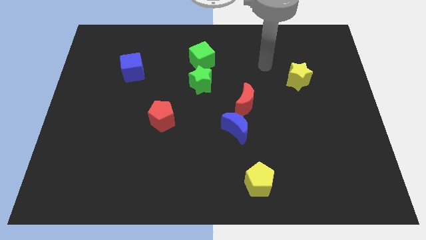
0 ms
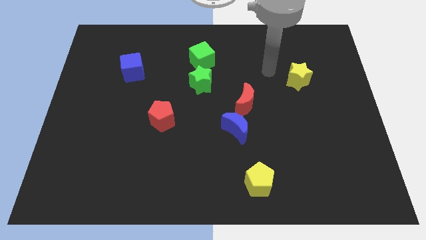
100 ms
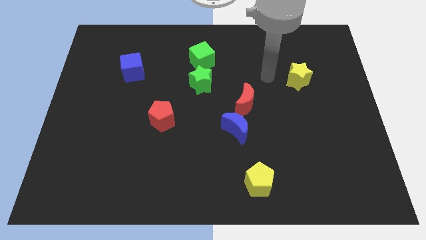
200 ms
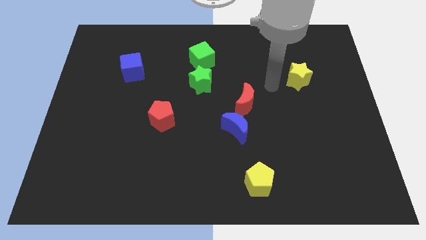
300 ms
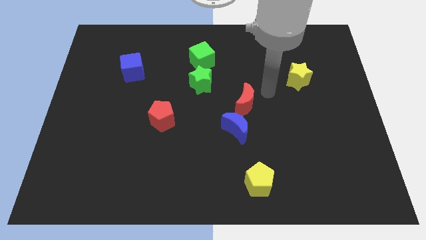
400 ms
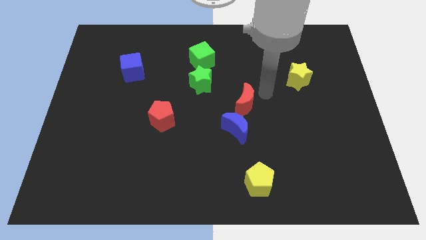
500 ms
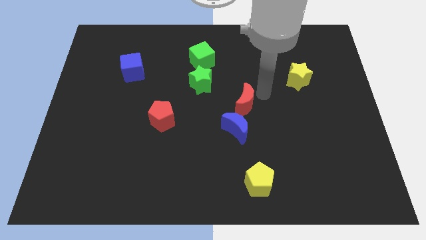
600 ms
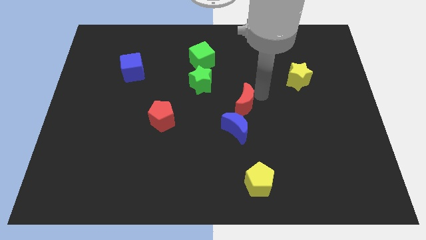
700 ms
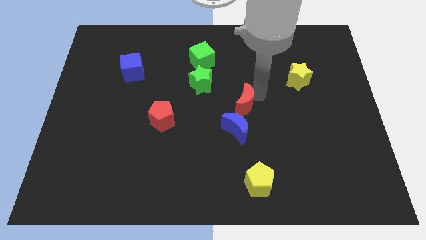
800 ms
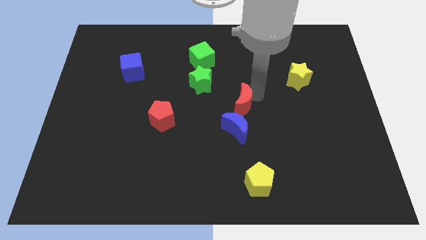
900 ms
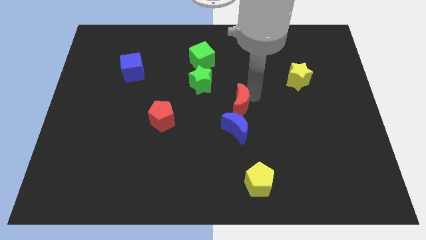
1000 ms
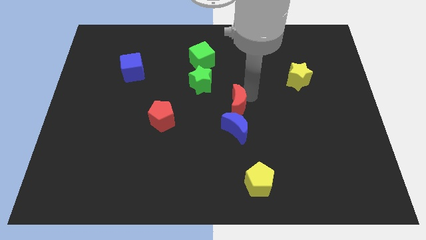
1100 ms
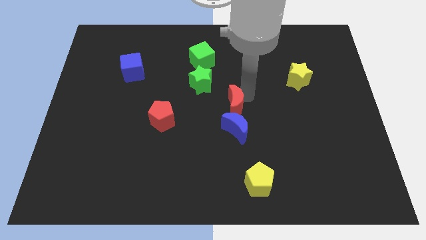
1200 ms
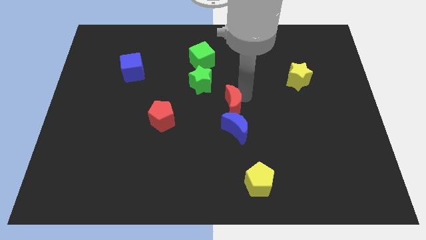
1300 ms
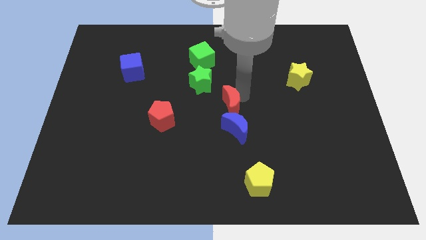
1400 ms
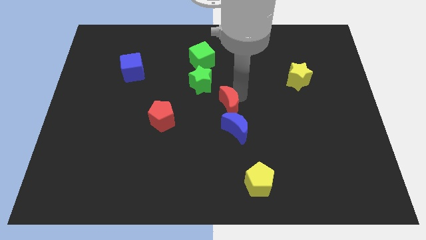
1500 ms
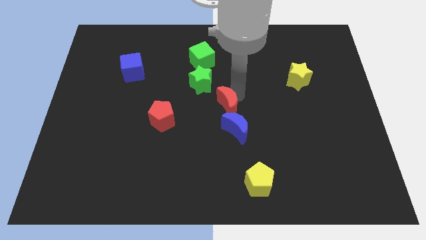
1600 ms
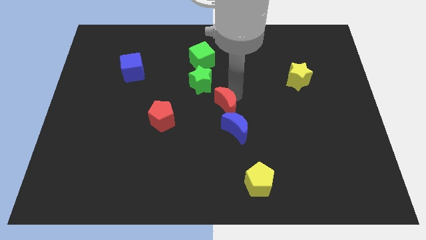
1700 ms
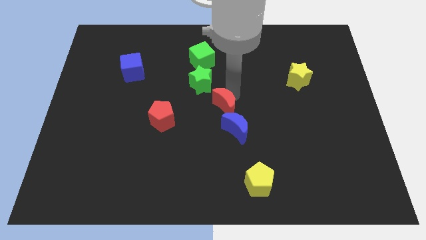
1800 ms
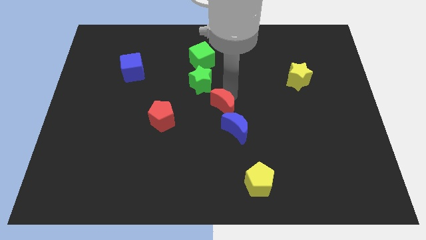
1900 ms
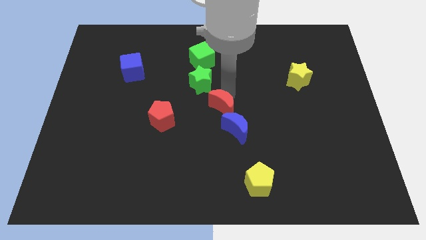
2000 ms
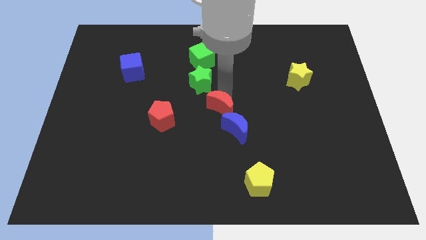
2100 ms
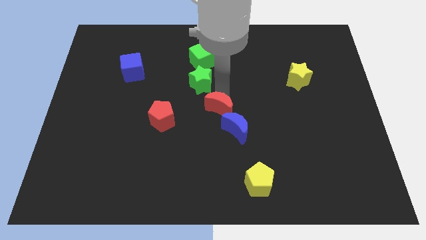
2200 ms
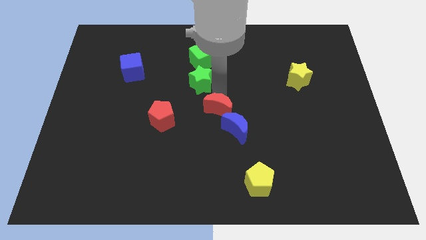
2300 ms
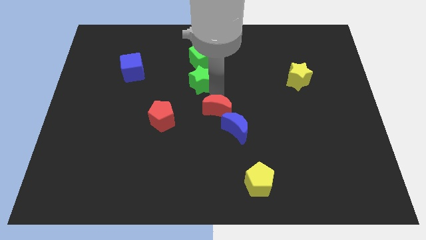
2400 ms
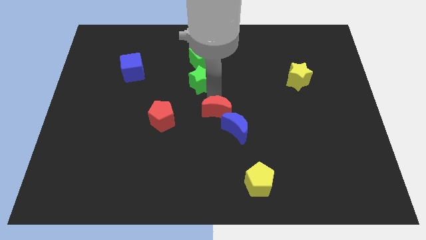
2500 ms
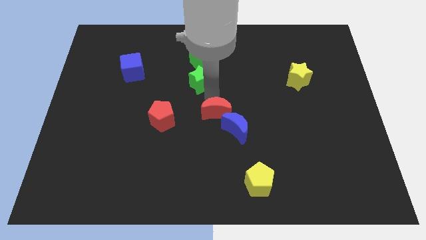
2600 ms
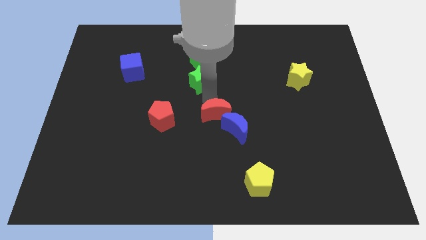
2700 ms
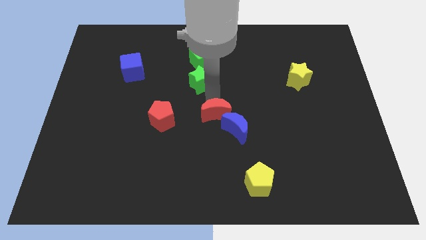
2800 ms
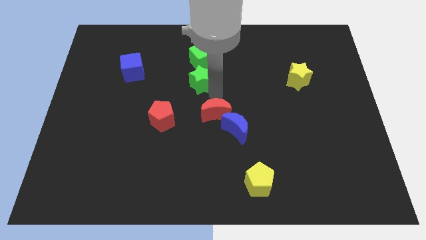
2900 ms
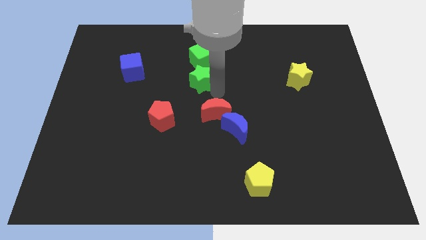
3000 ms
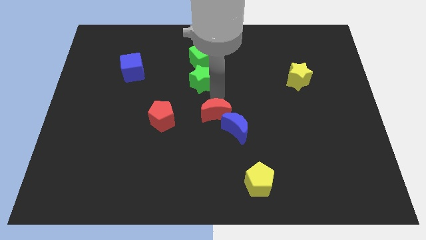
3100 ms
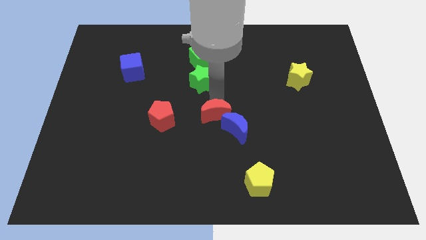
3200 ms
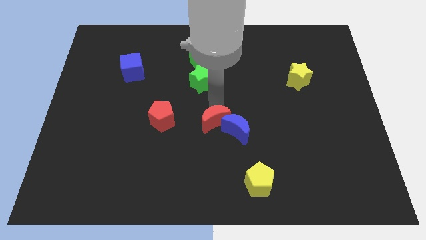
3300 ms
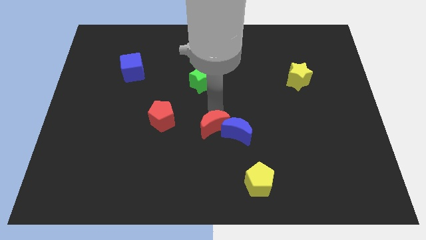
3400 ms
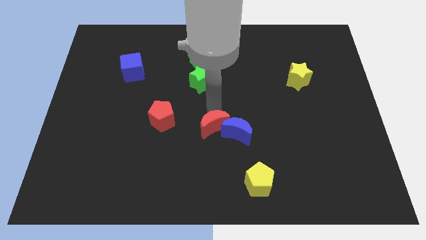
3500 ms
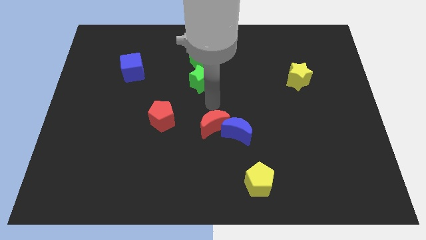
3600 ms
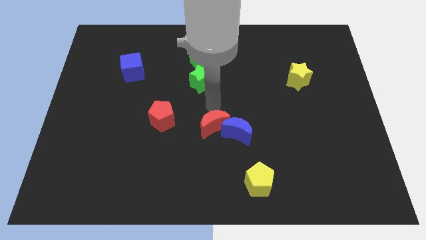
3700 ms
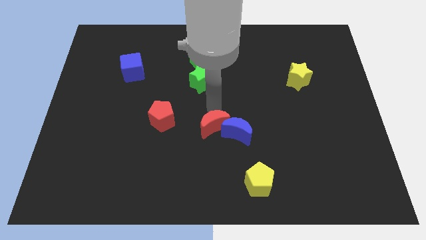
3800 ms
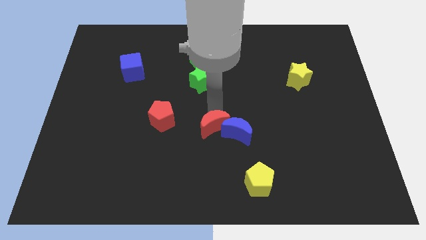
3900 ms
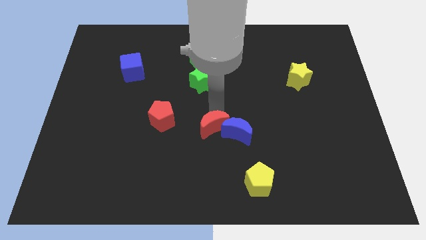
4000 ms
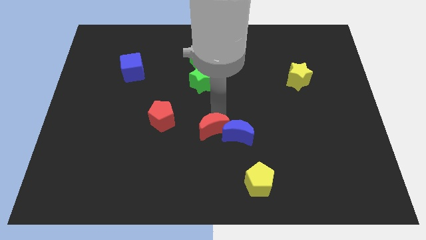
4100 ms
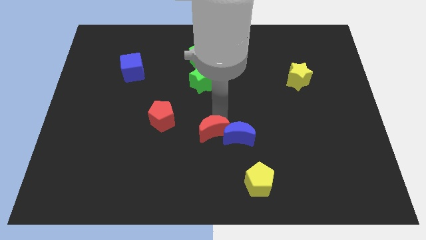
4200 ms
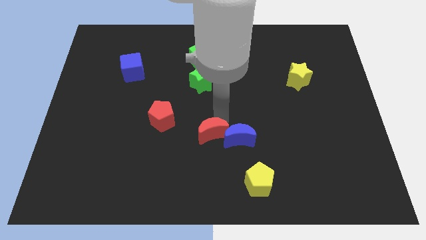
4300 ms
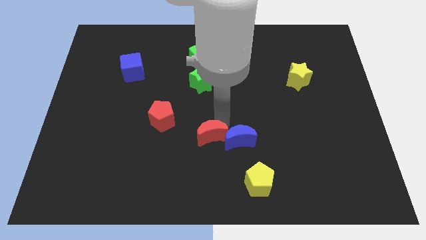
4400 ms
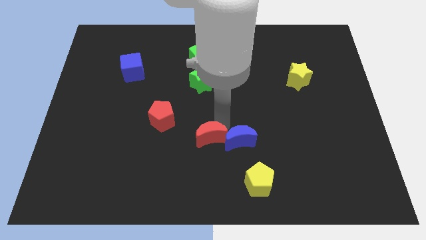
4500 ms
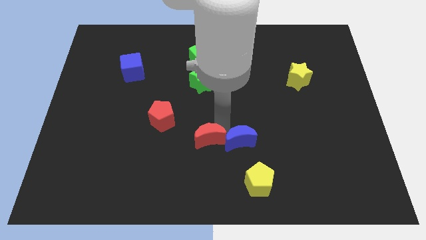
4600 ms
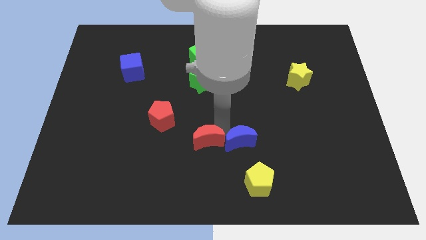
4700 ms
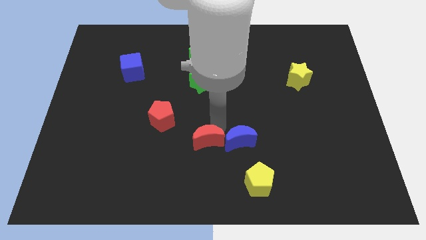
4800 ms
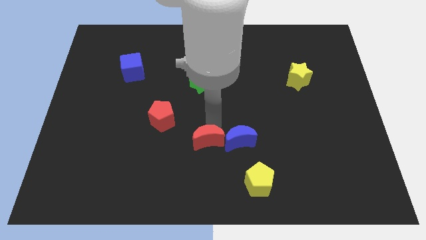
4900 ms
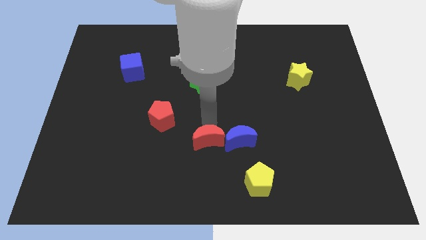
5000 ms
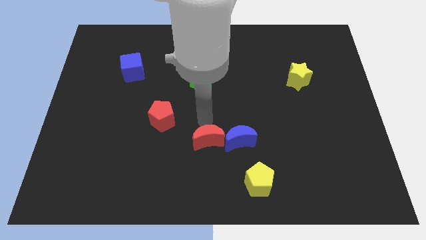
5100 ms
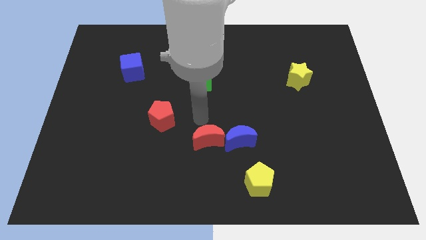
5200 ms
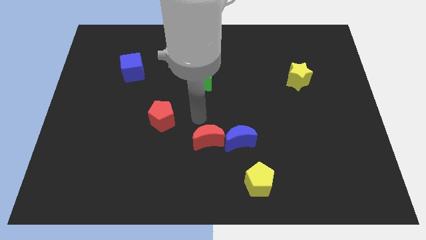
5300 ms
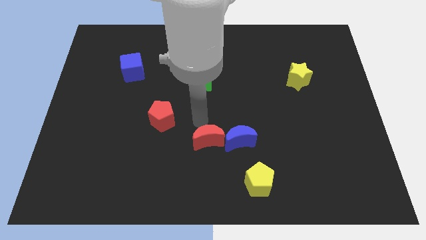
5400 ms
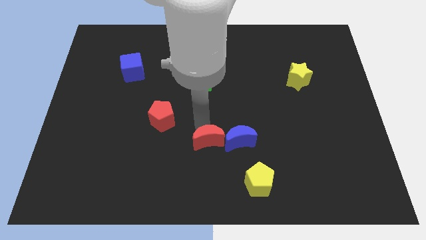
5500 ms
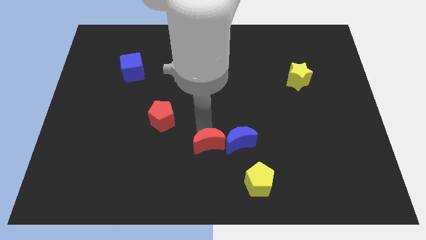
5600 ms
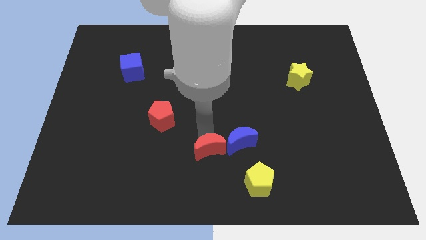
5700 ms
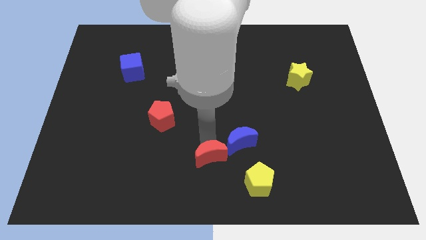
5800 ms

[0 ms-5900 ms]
push the red moon to the bottom side

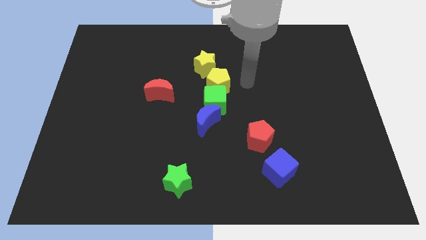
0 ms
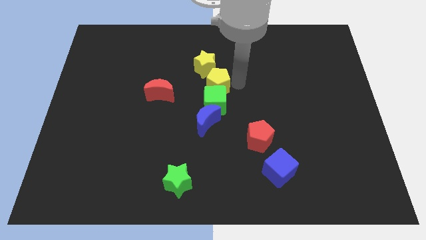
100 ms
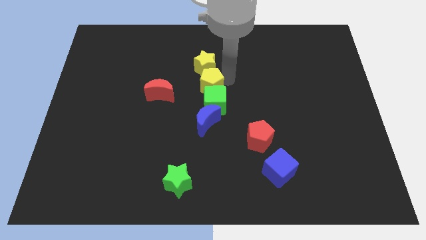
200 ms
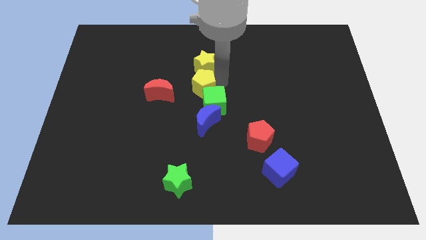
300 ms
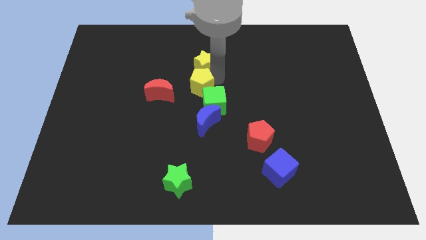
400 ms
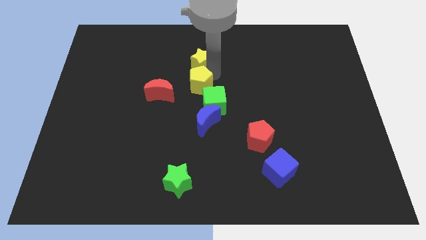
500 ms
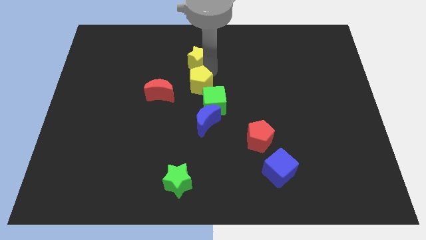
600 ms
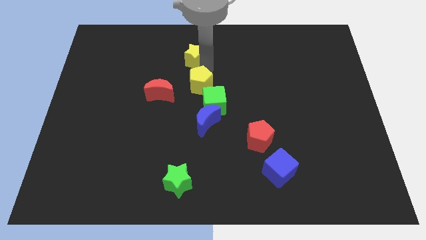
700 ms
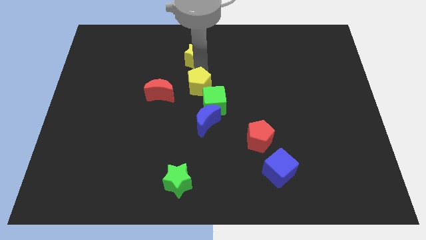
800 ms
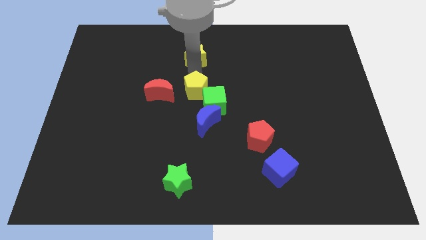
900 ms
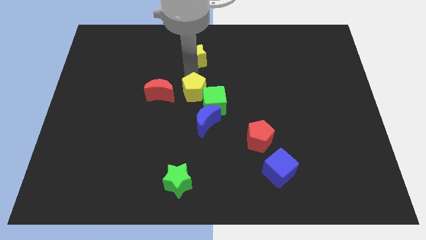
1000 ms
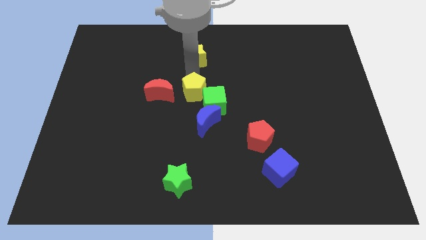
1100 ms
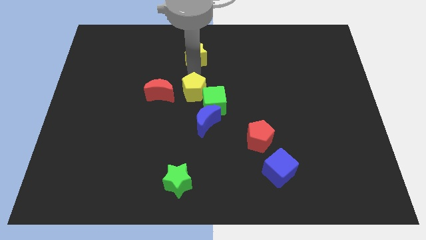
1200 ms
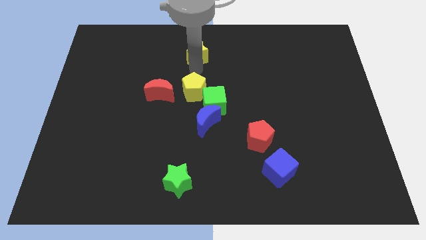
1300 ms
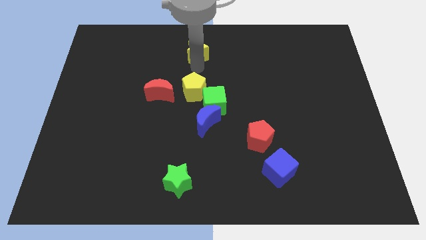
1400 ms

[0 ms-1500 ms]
slide the yellow star to the top side

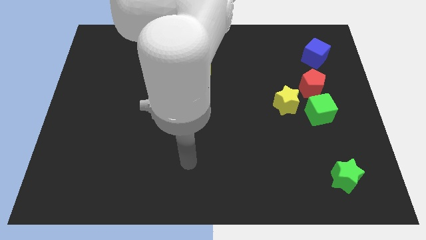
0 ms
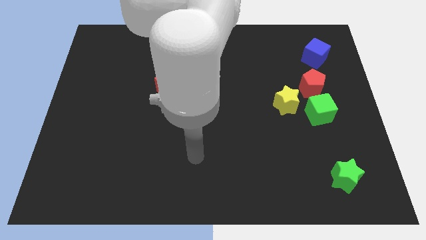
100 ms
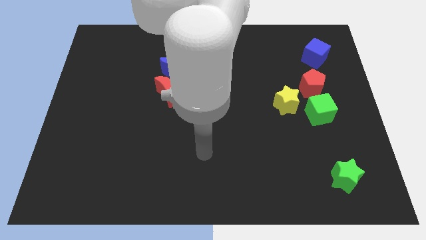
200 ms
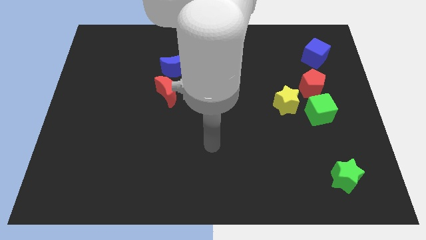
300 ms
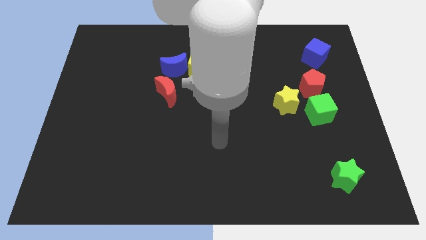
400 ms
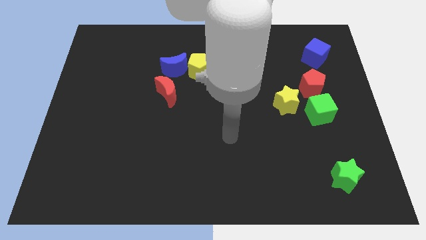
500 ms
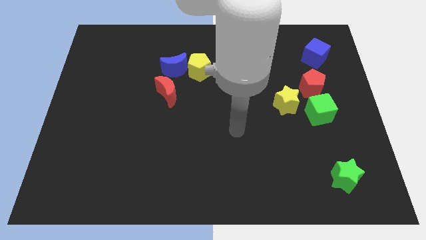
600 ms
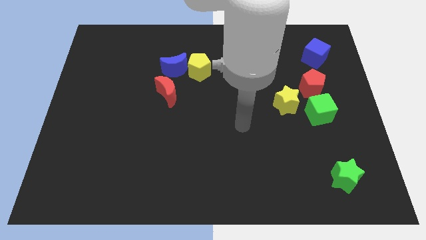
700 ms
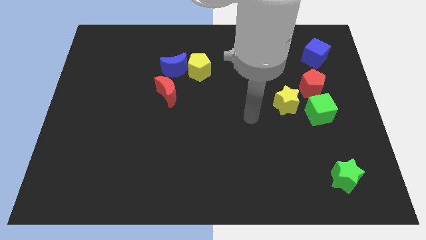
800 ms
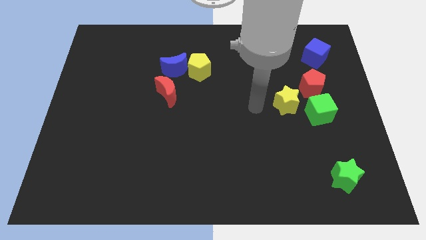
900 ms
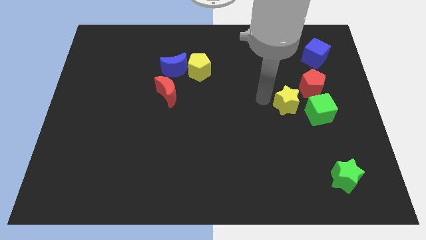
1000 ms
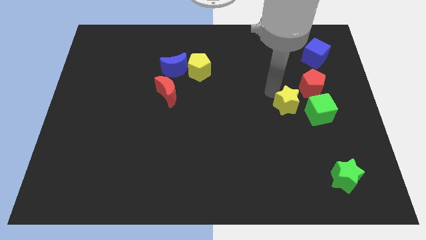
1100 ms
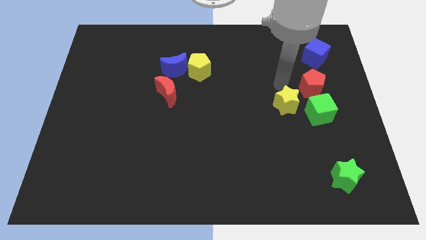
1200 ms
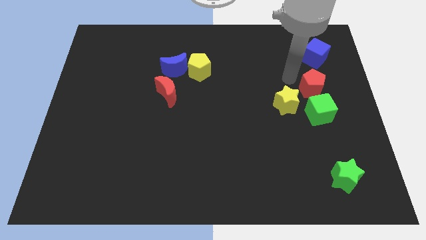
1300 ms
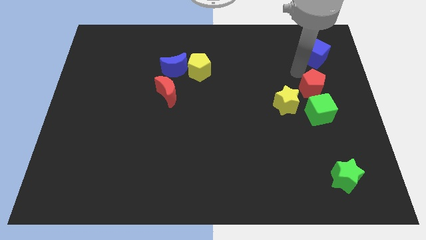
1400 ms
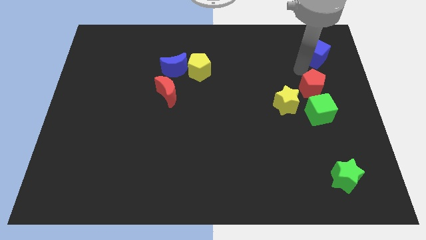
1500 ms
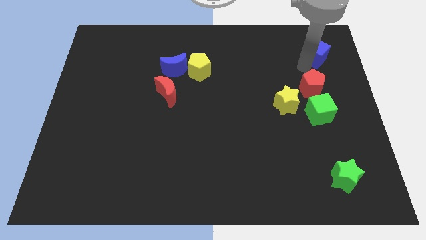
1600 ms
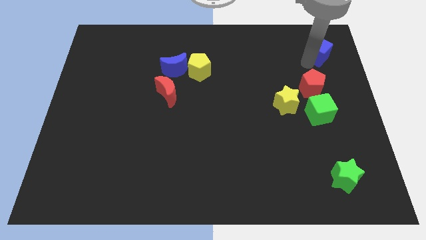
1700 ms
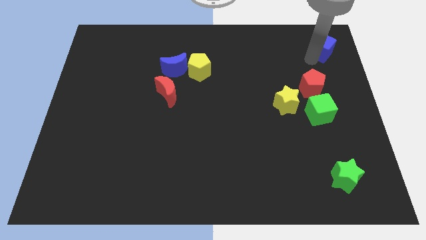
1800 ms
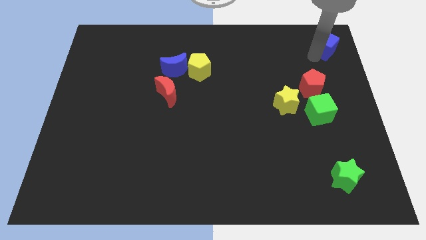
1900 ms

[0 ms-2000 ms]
move the blue cube to the upper right corner
